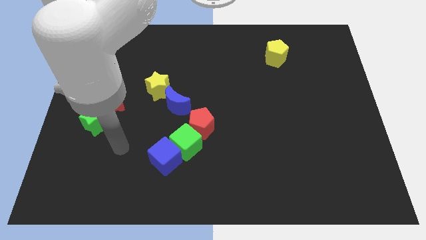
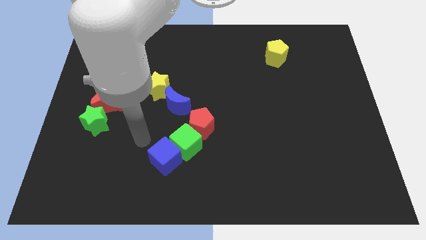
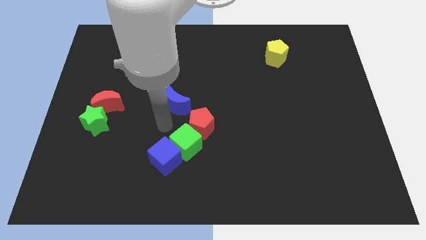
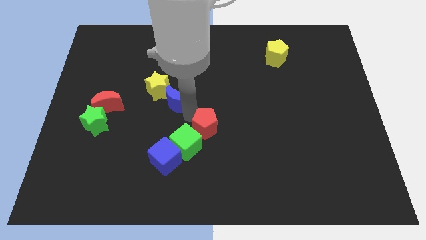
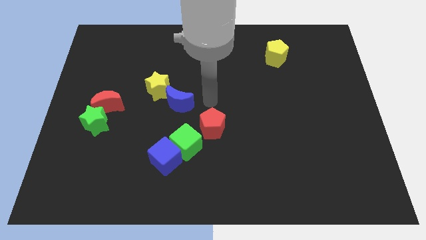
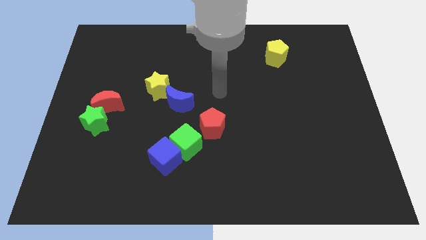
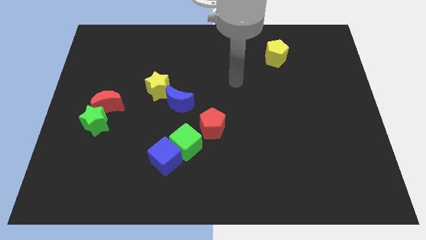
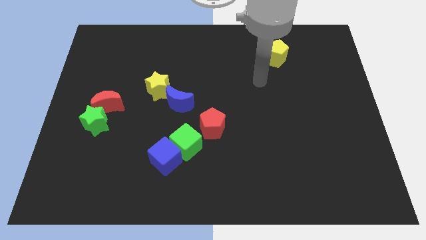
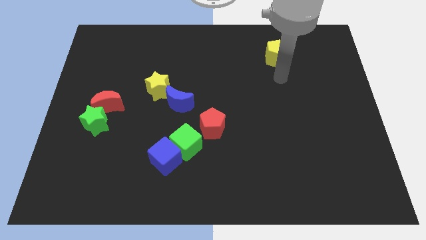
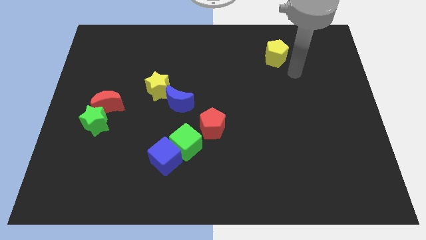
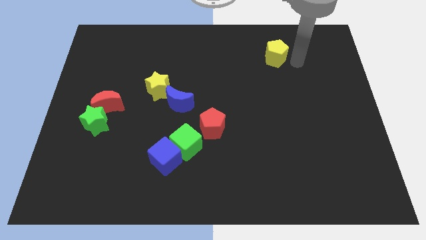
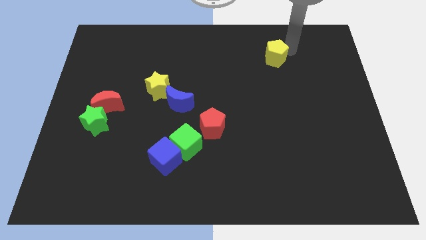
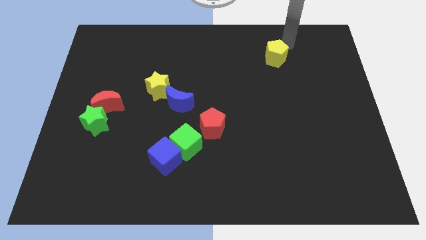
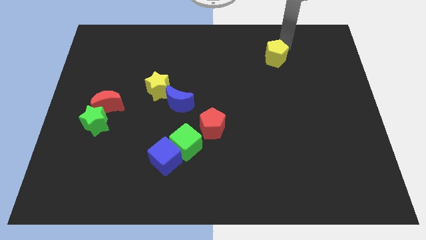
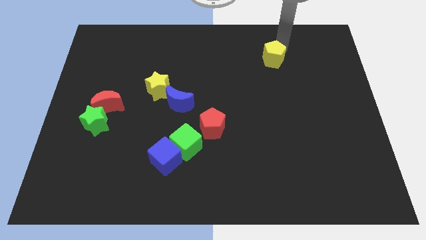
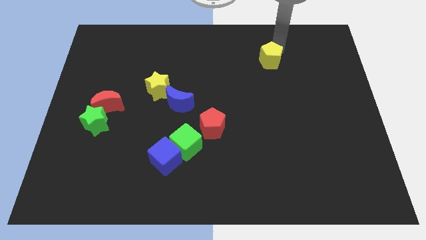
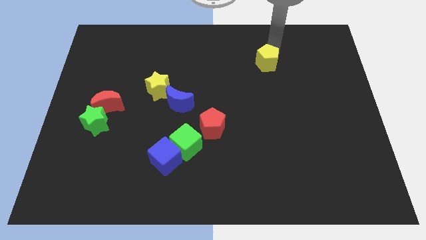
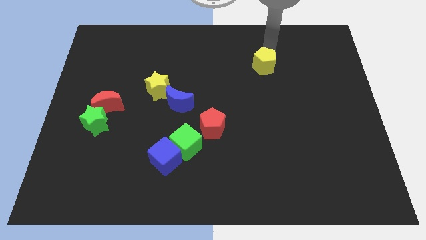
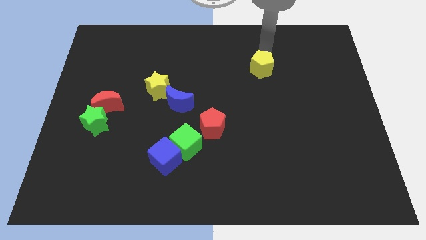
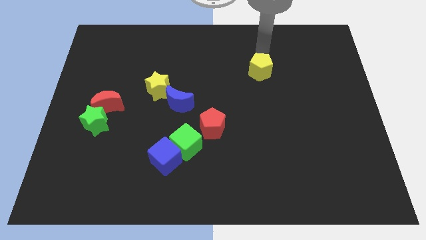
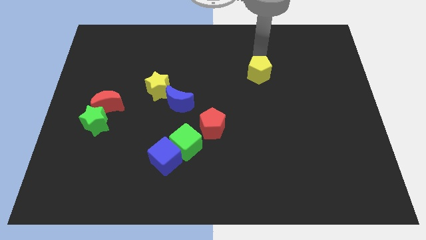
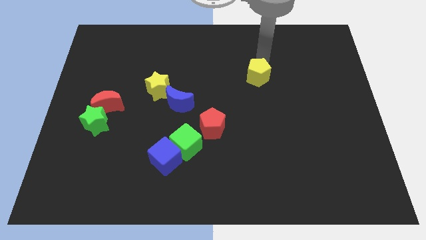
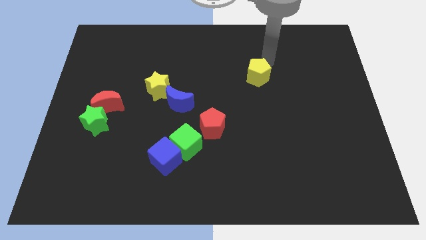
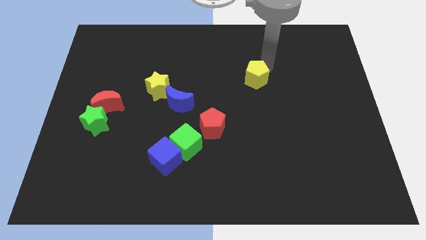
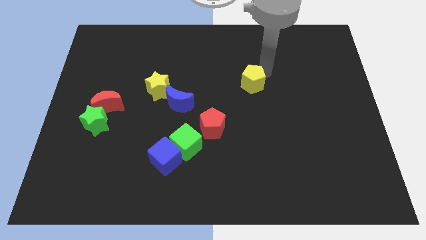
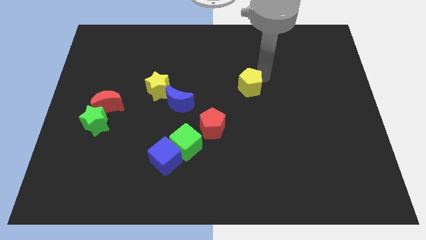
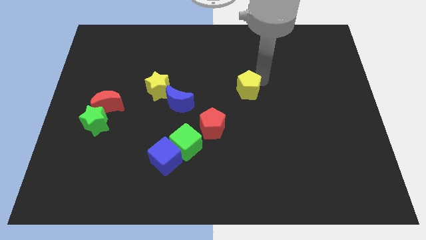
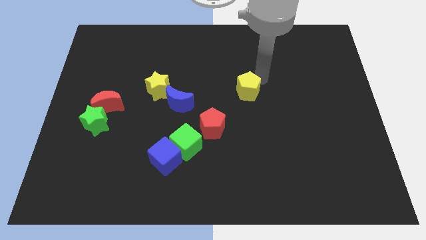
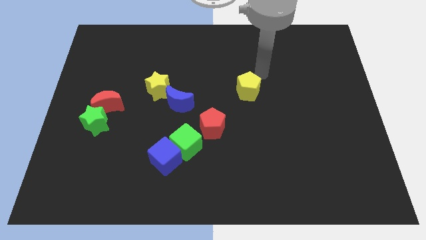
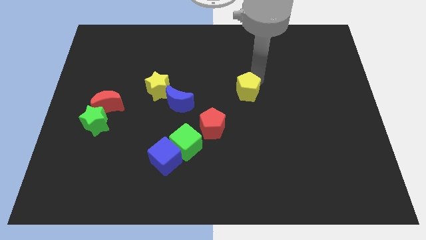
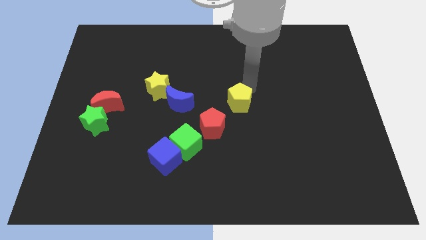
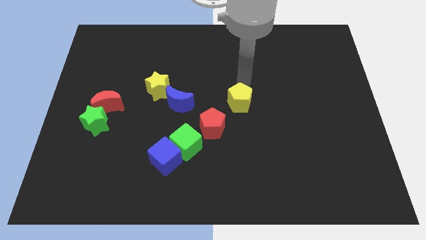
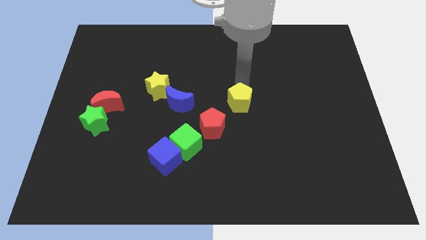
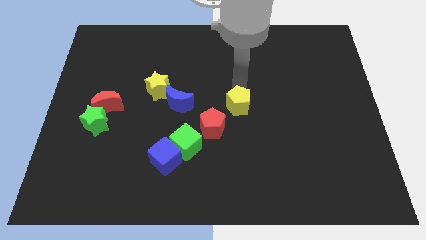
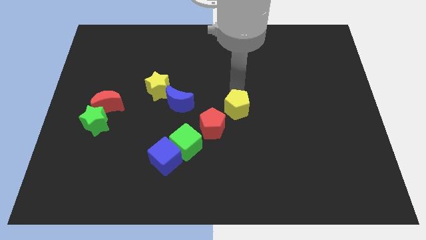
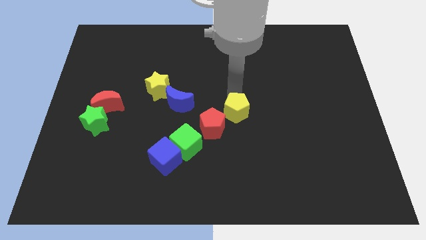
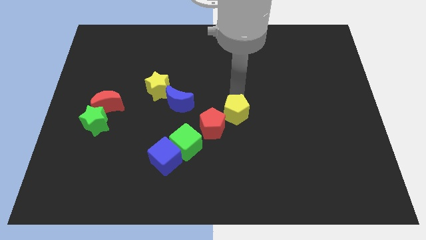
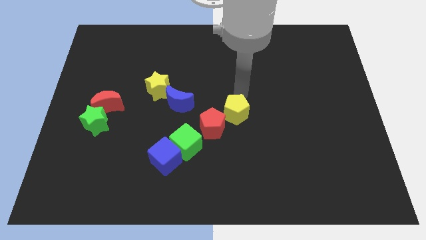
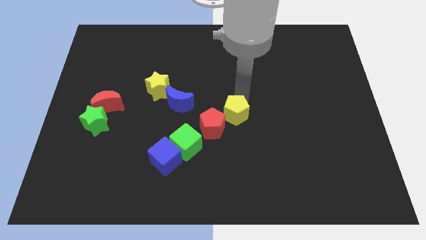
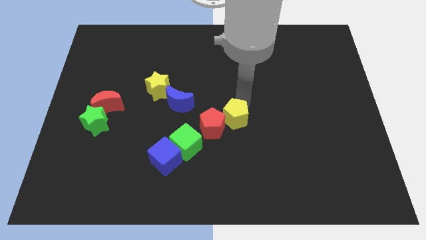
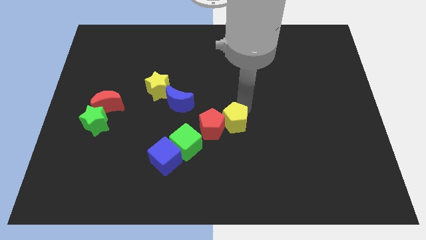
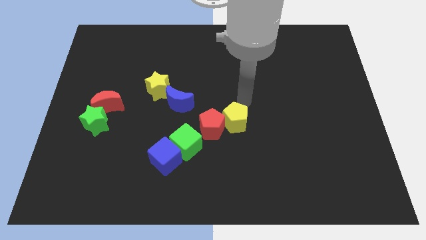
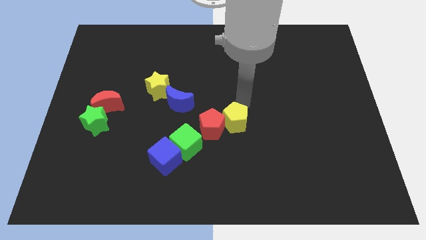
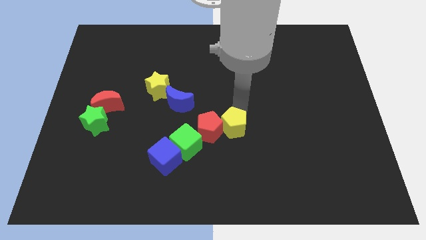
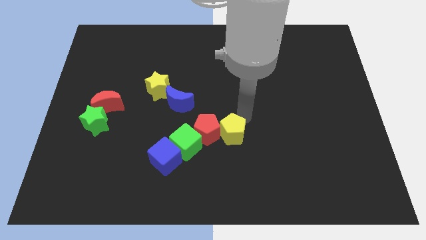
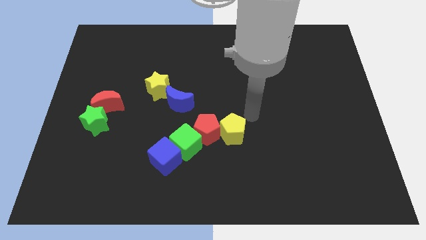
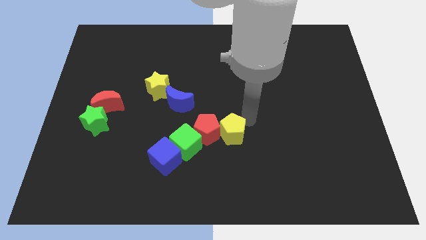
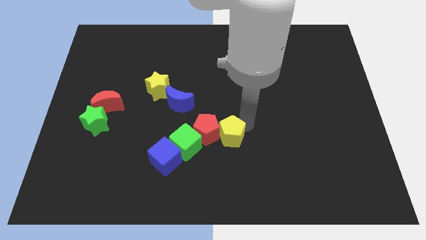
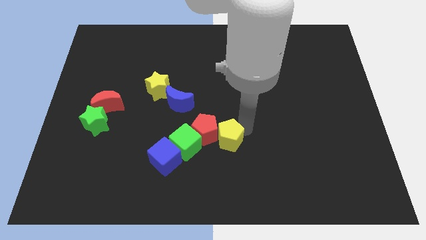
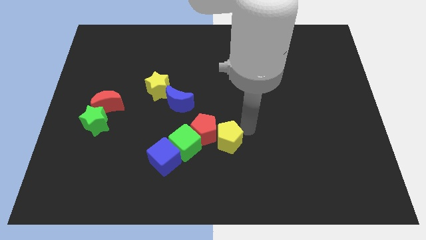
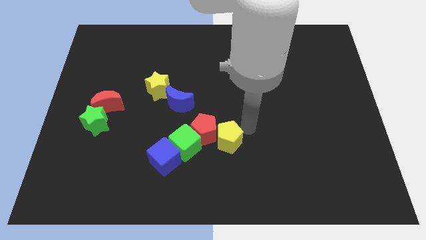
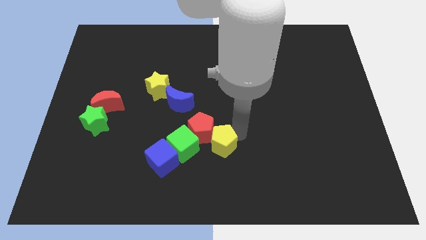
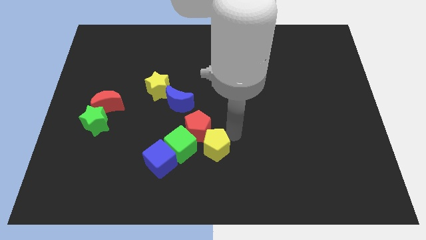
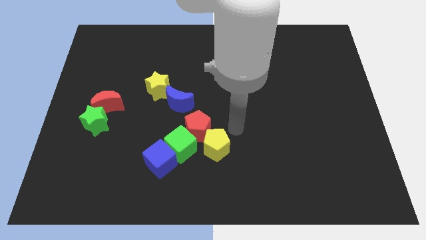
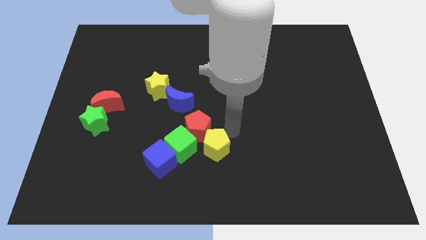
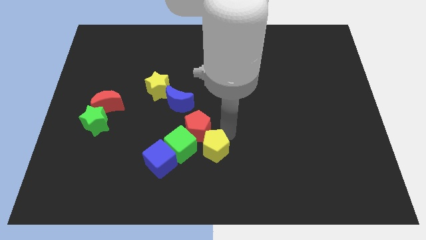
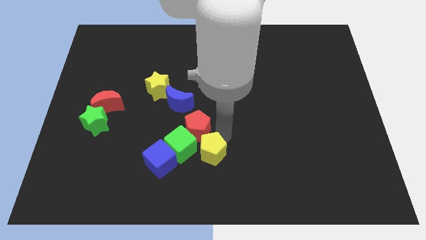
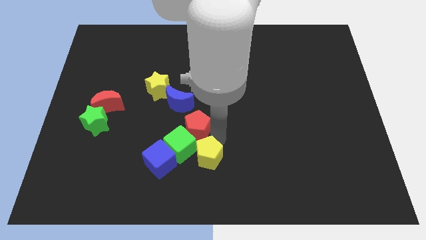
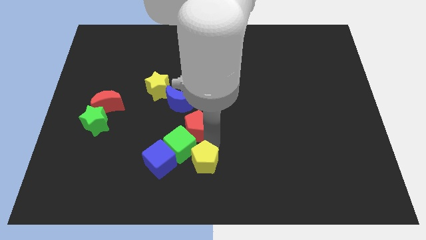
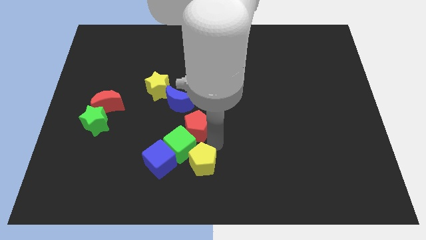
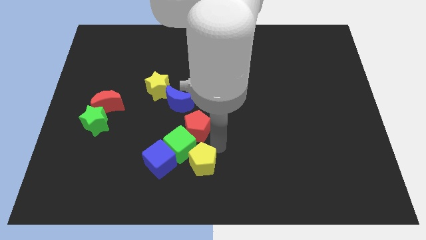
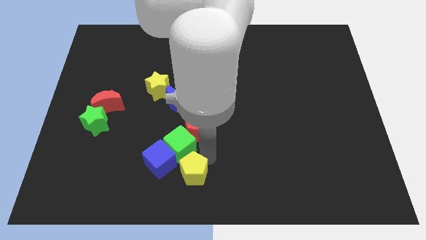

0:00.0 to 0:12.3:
put the yellow pentagon to the bottom right of the blue cube

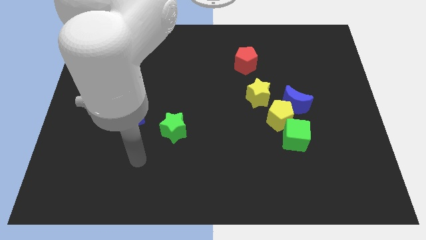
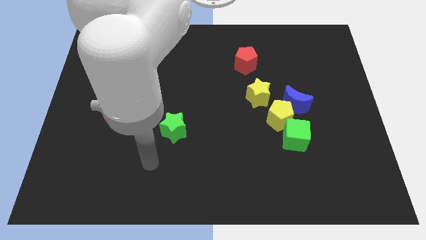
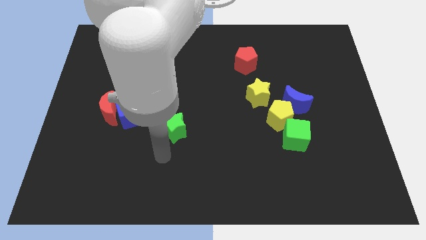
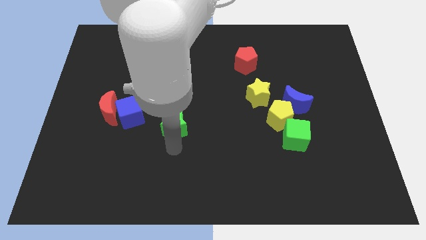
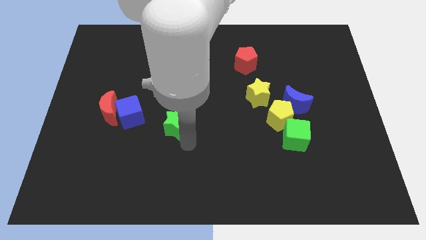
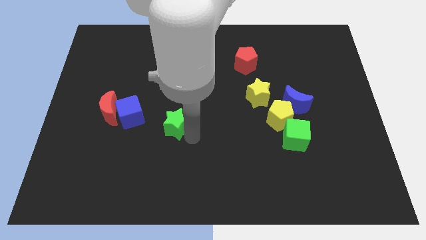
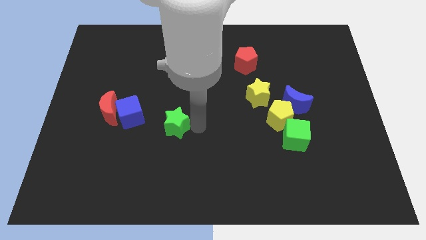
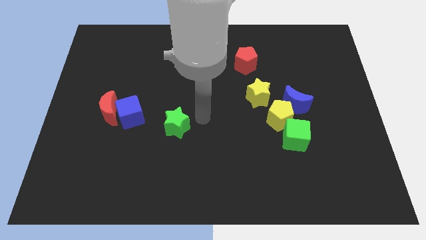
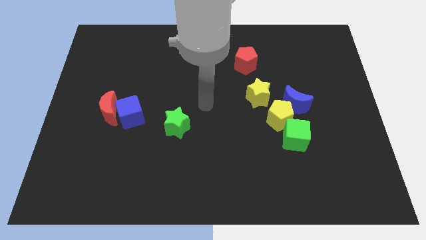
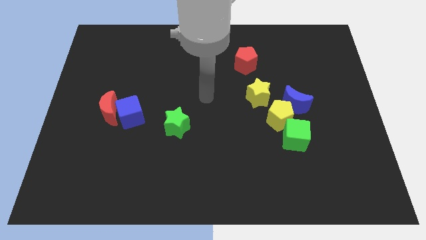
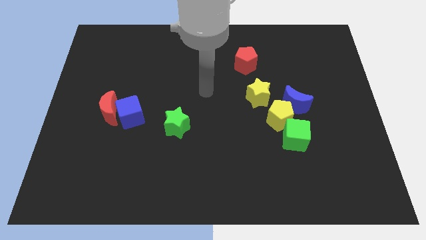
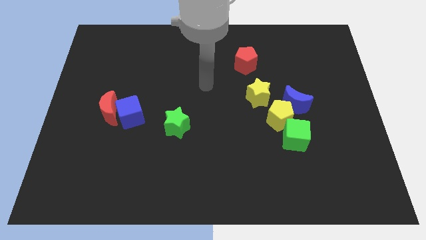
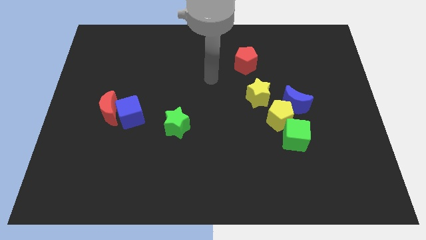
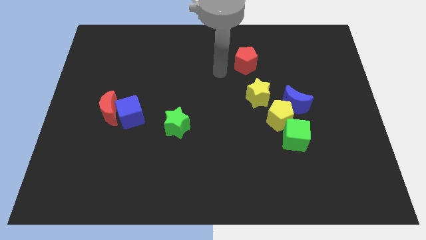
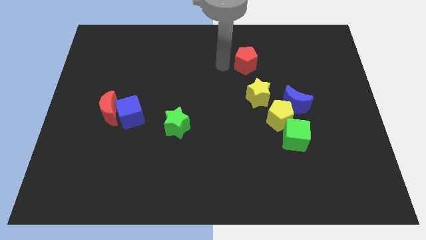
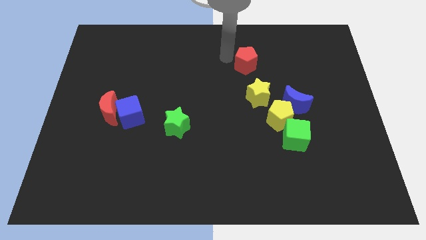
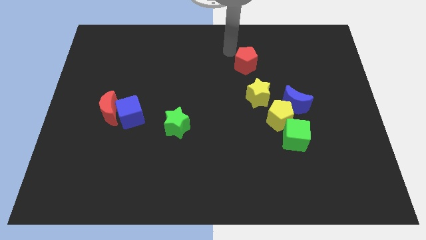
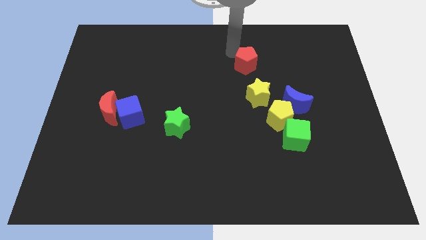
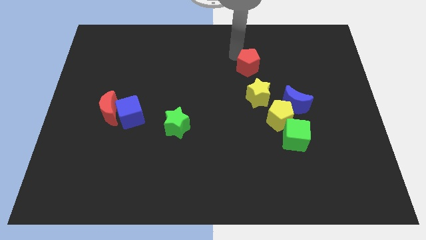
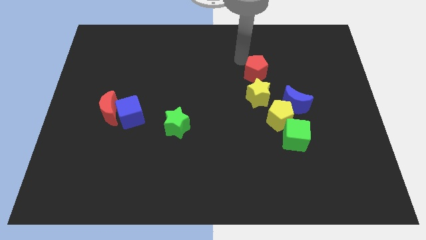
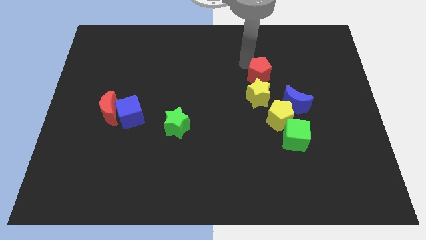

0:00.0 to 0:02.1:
push the red pentagon to the top left side of the blue moon
